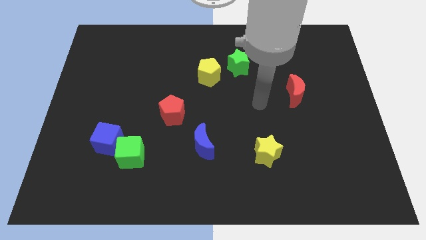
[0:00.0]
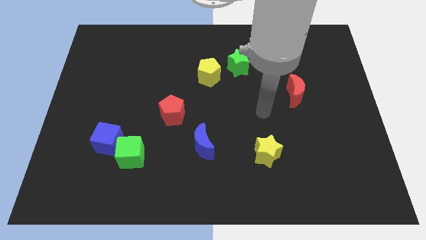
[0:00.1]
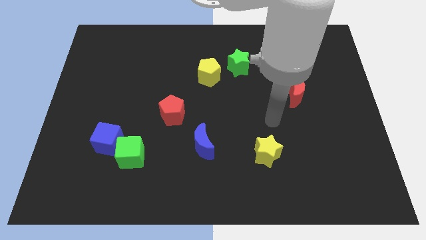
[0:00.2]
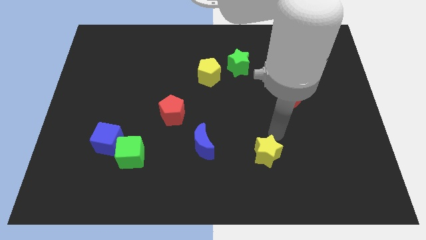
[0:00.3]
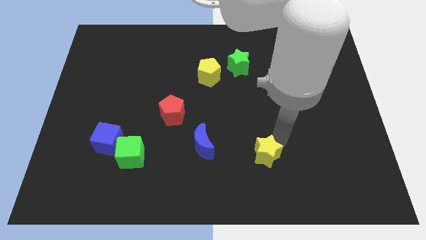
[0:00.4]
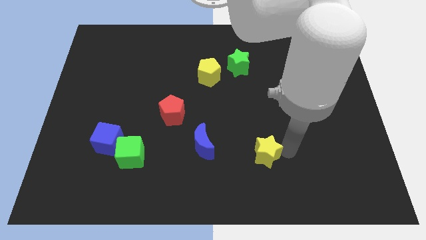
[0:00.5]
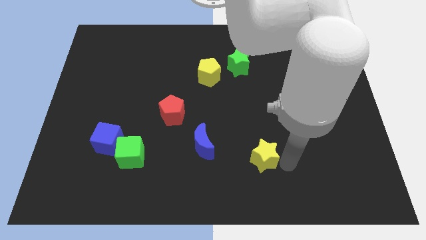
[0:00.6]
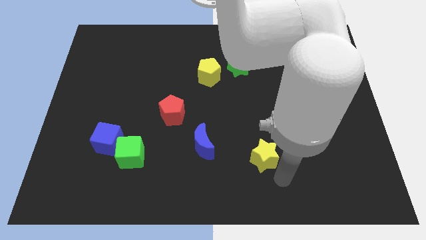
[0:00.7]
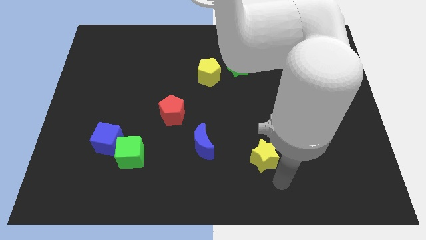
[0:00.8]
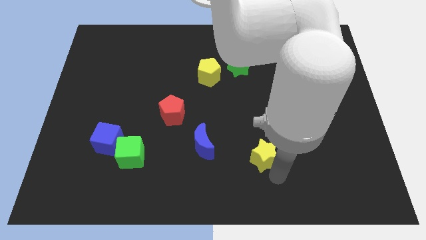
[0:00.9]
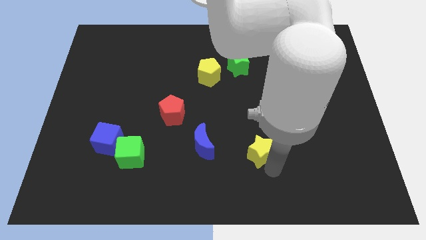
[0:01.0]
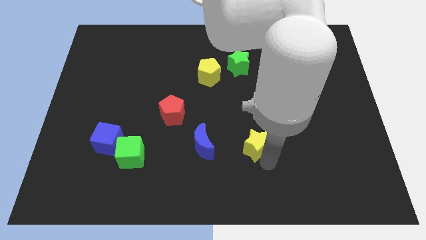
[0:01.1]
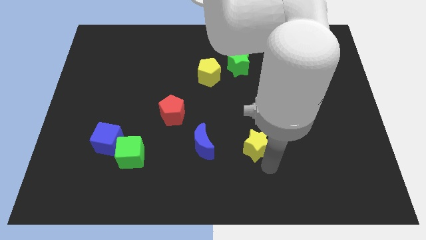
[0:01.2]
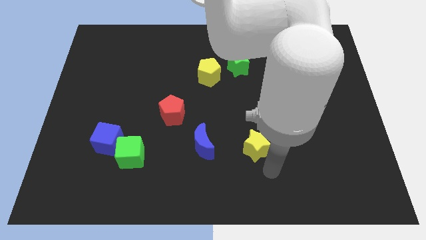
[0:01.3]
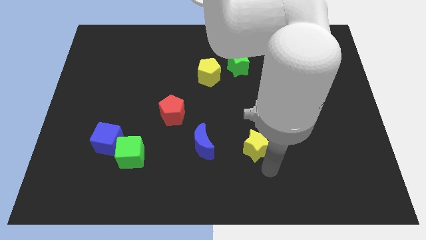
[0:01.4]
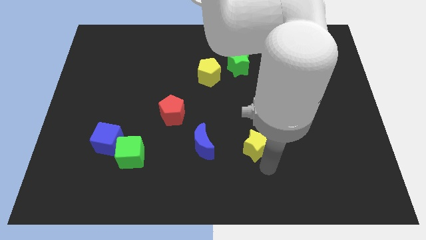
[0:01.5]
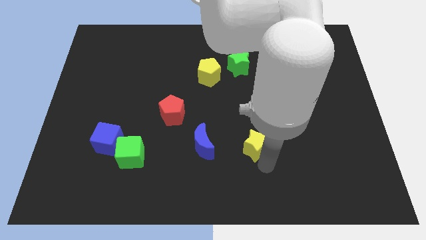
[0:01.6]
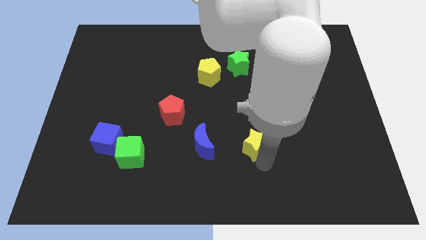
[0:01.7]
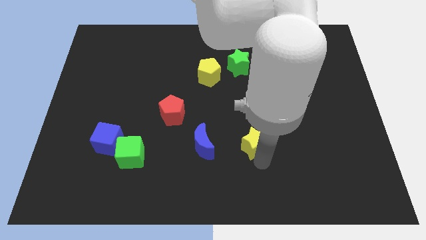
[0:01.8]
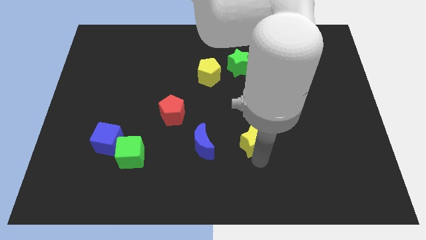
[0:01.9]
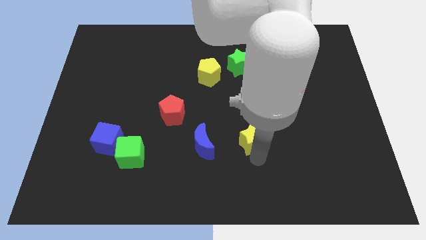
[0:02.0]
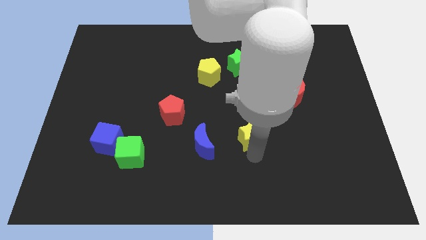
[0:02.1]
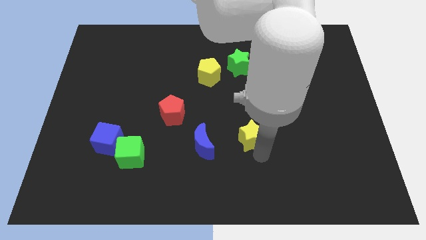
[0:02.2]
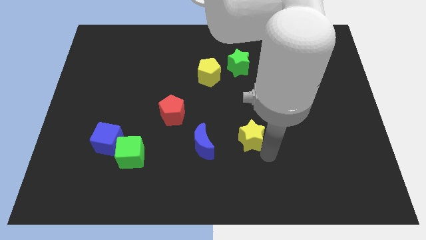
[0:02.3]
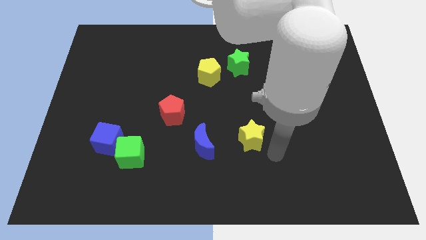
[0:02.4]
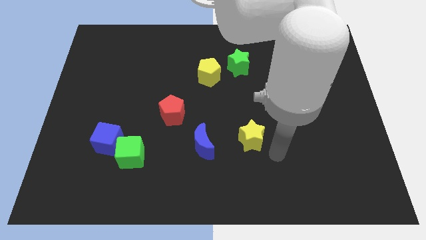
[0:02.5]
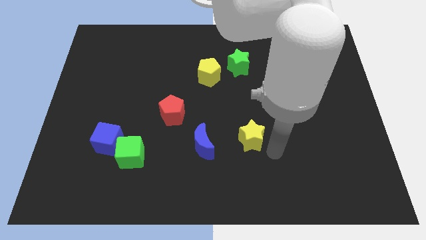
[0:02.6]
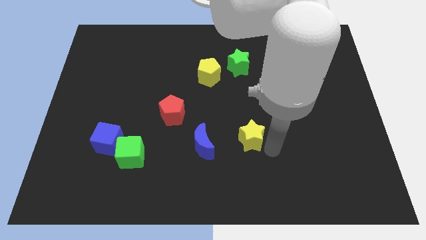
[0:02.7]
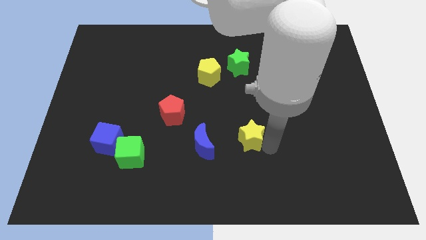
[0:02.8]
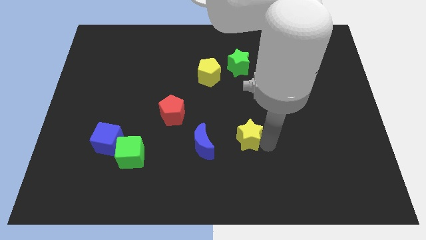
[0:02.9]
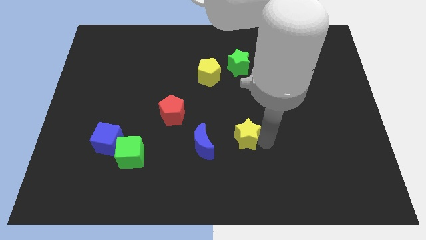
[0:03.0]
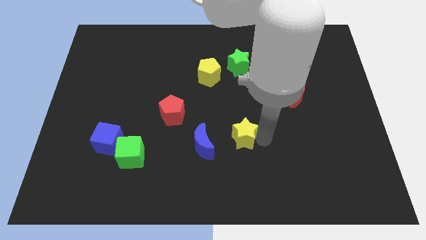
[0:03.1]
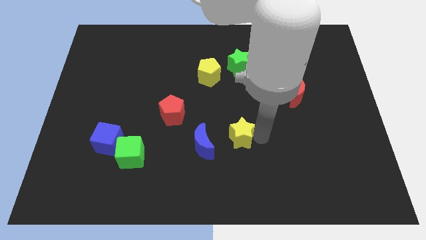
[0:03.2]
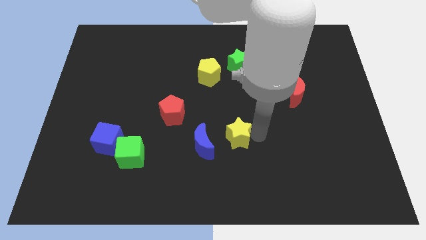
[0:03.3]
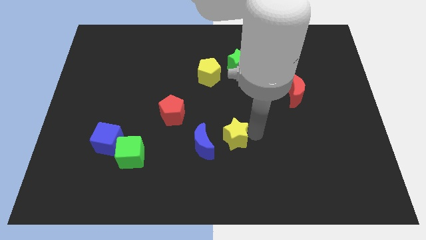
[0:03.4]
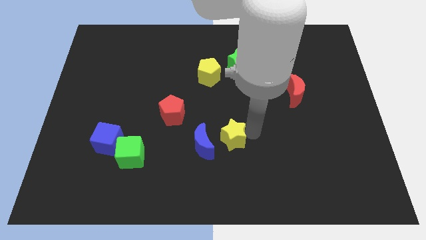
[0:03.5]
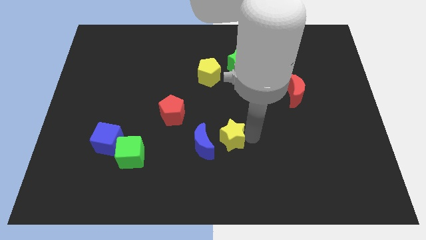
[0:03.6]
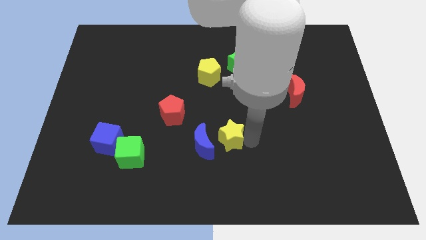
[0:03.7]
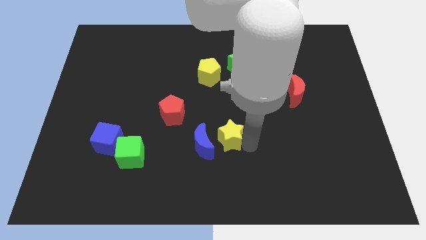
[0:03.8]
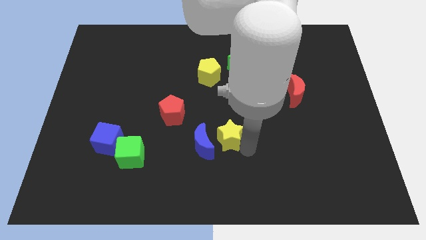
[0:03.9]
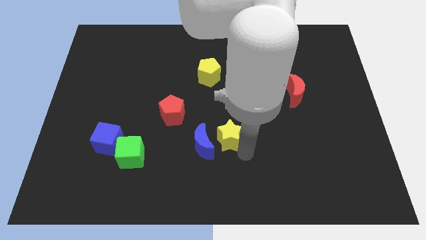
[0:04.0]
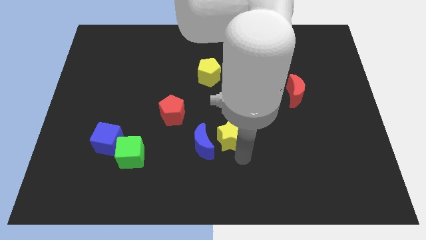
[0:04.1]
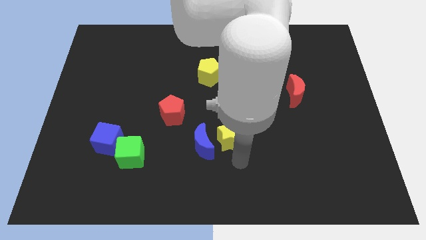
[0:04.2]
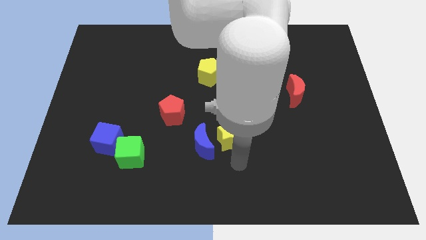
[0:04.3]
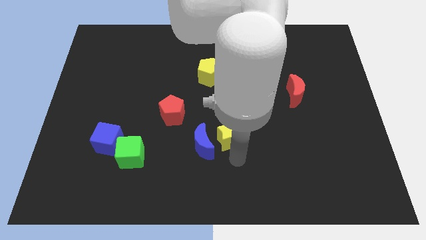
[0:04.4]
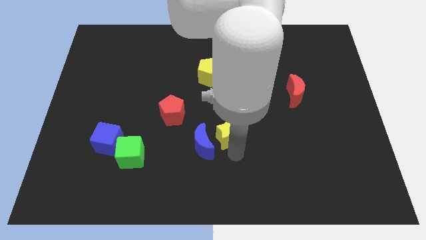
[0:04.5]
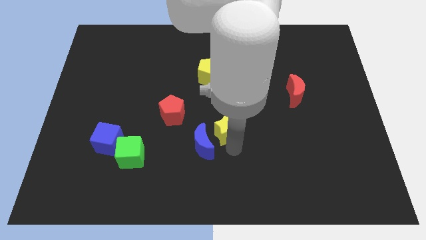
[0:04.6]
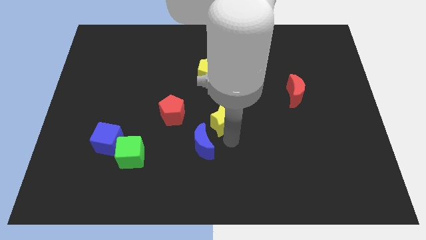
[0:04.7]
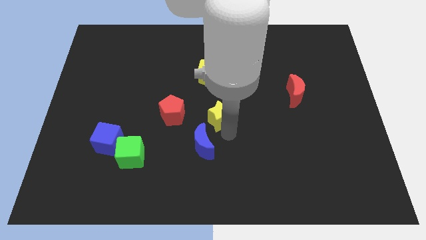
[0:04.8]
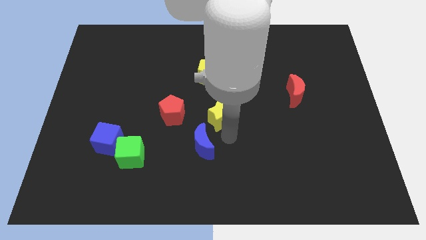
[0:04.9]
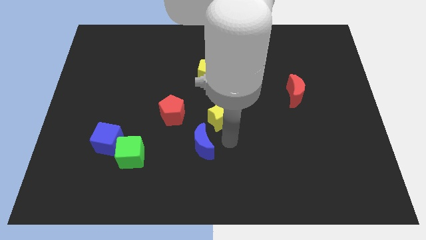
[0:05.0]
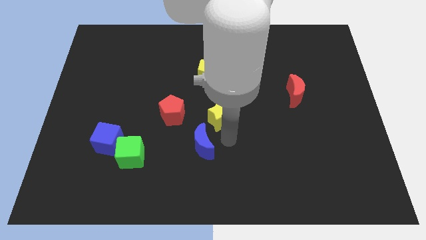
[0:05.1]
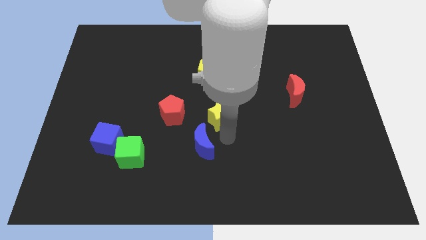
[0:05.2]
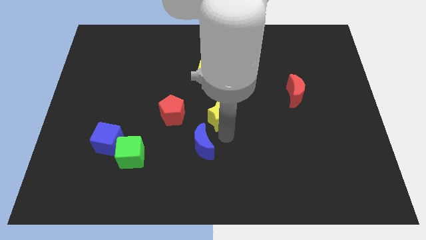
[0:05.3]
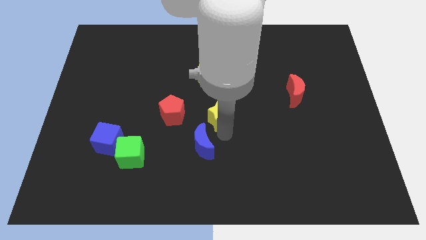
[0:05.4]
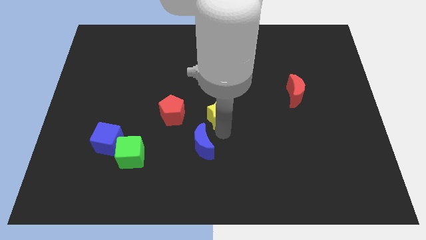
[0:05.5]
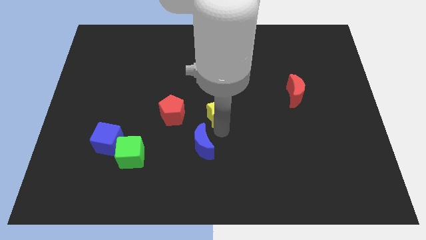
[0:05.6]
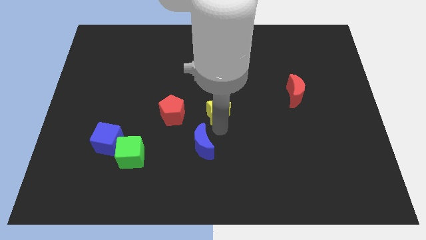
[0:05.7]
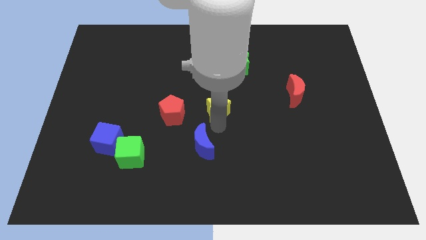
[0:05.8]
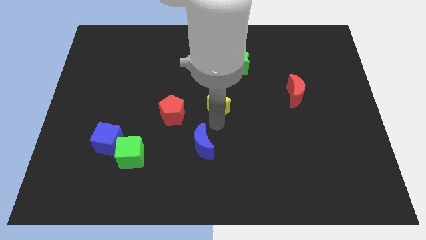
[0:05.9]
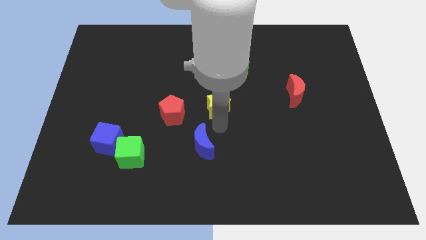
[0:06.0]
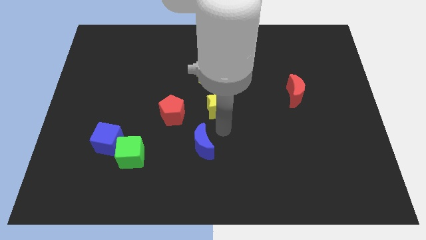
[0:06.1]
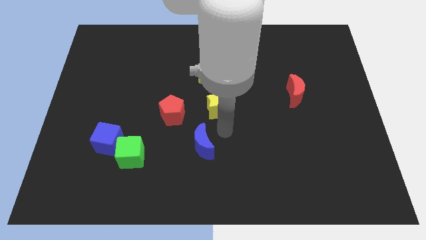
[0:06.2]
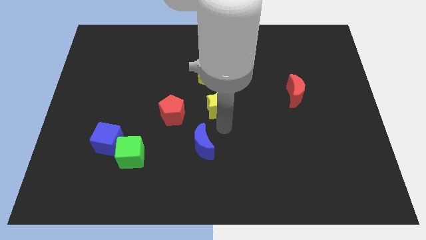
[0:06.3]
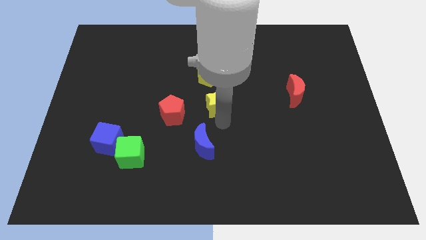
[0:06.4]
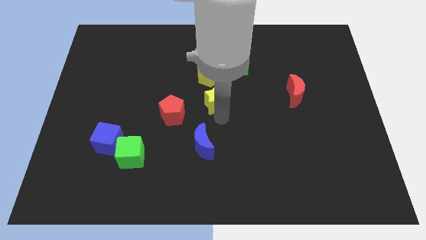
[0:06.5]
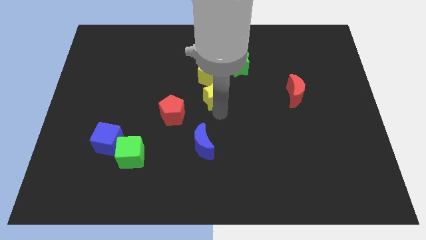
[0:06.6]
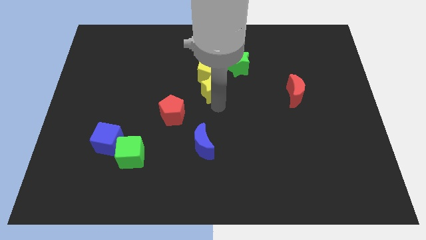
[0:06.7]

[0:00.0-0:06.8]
slide the yellow star to the yellow pentagon

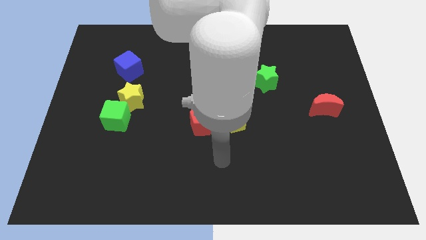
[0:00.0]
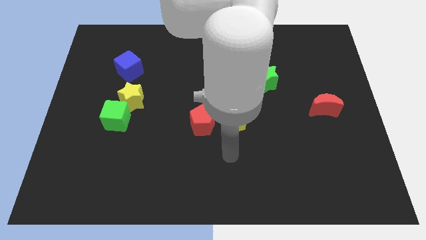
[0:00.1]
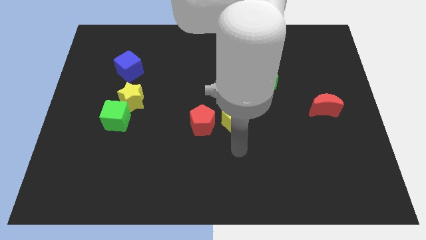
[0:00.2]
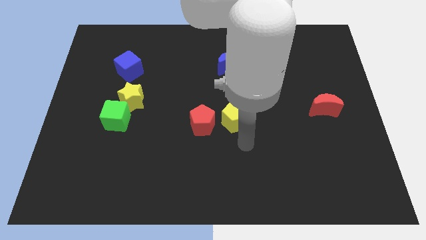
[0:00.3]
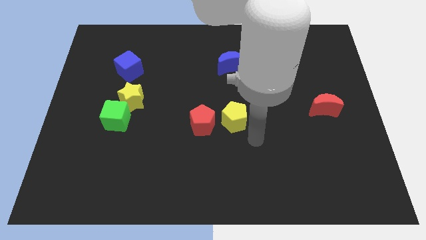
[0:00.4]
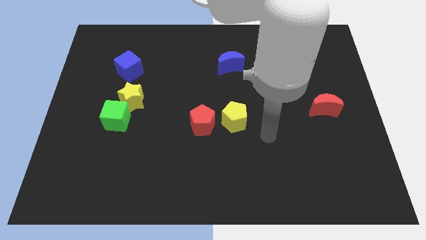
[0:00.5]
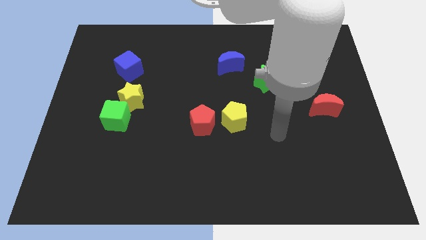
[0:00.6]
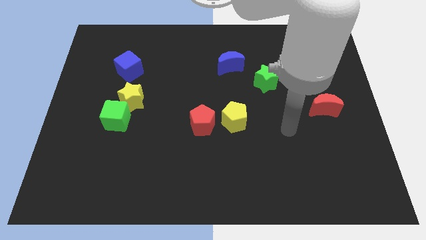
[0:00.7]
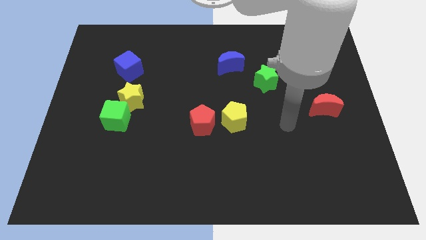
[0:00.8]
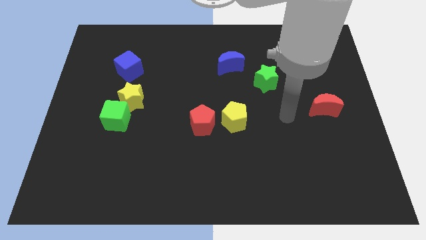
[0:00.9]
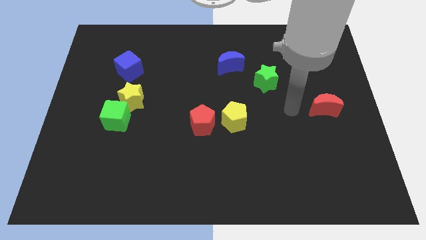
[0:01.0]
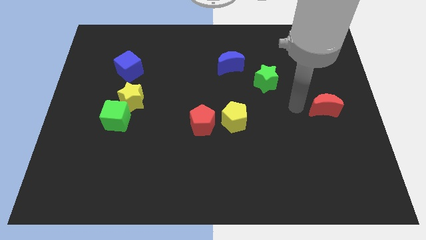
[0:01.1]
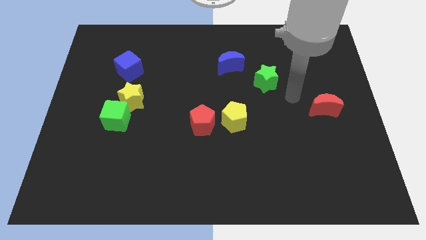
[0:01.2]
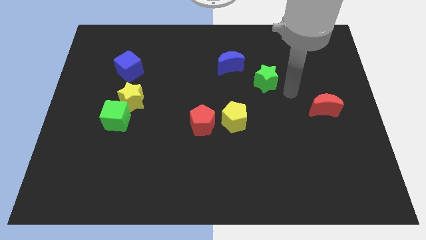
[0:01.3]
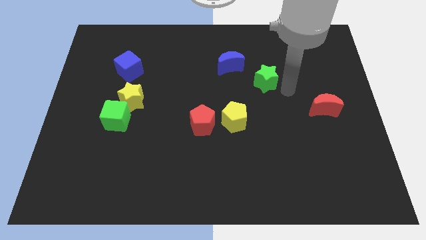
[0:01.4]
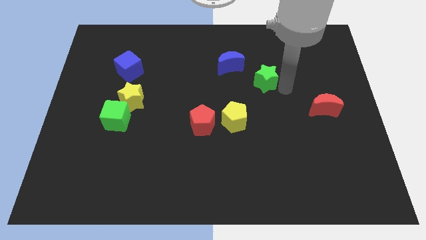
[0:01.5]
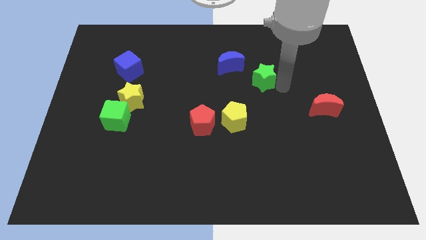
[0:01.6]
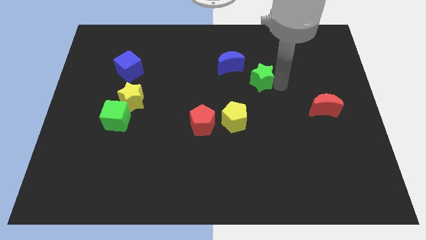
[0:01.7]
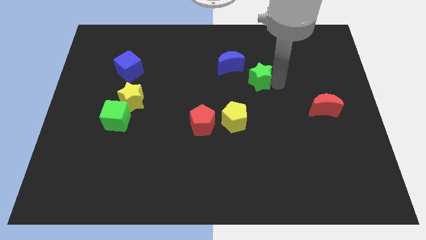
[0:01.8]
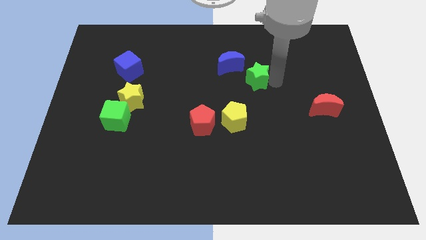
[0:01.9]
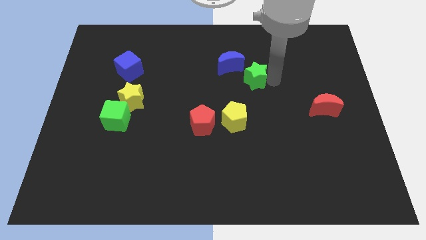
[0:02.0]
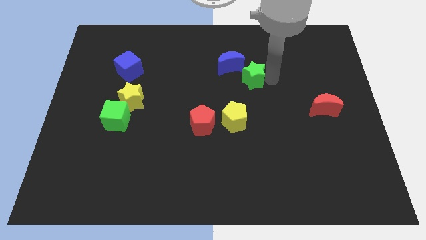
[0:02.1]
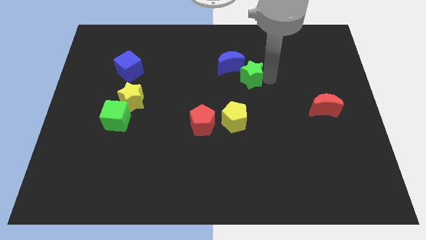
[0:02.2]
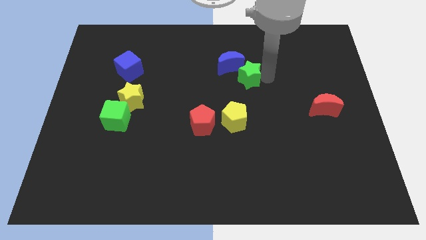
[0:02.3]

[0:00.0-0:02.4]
slide the green star to the blue moon
